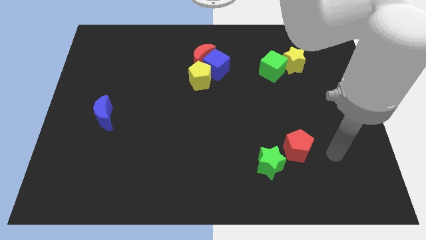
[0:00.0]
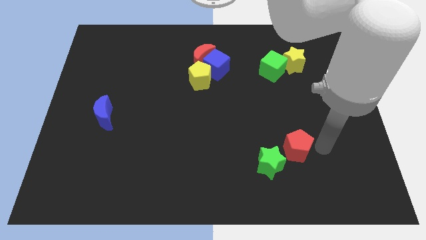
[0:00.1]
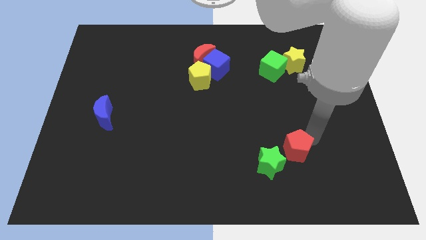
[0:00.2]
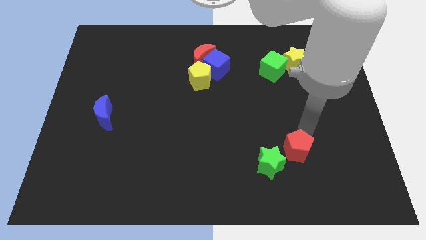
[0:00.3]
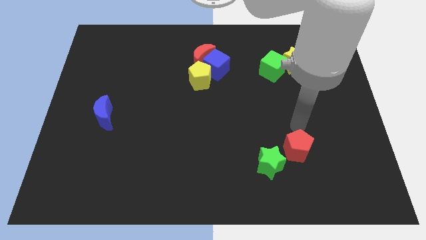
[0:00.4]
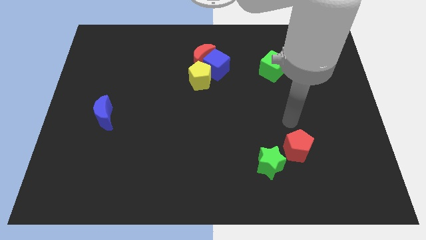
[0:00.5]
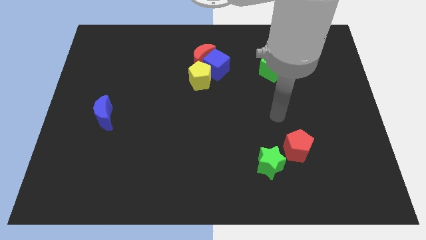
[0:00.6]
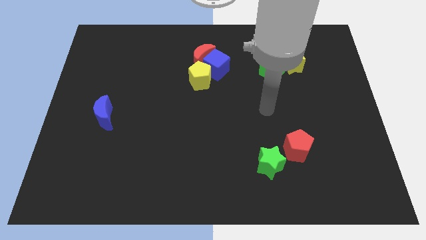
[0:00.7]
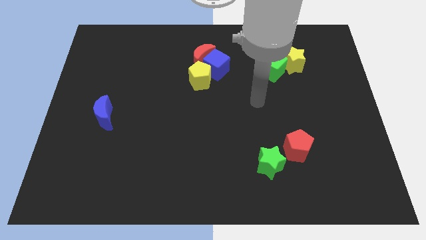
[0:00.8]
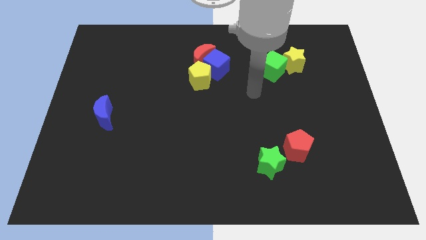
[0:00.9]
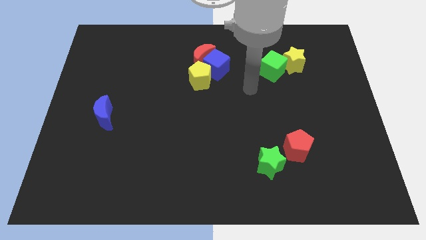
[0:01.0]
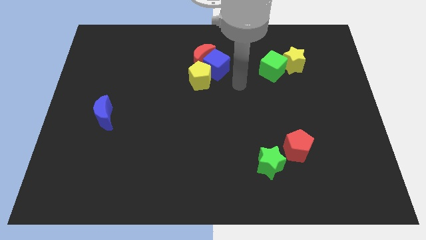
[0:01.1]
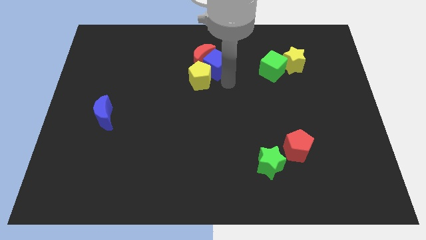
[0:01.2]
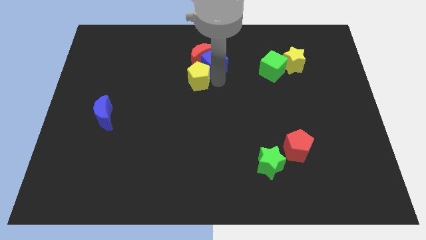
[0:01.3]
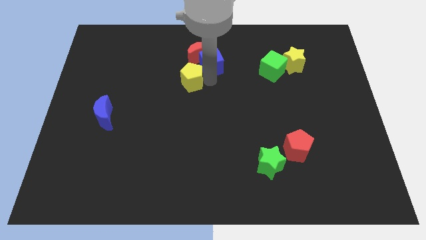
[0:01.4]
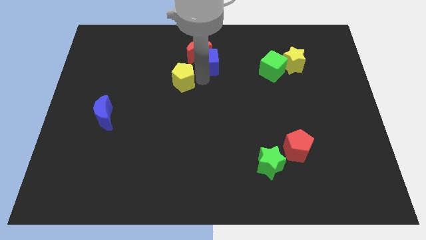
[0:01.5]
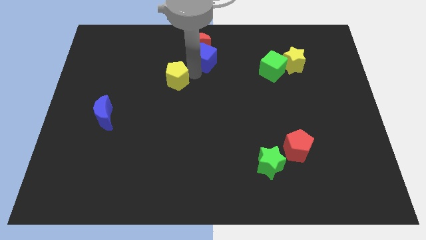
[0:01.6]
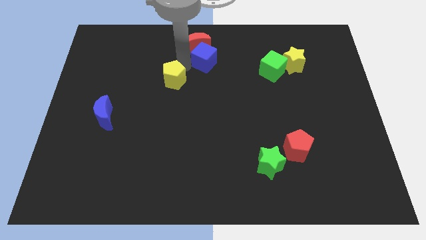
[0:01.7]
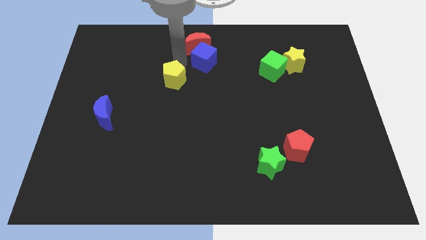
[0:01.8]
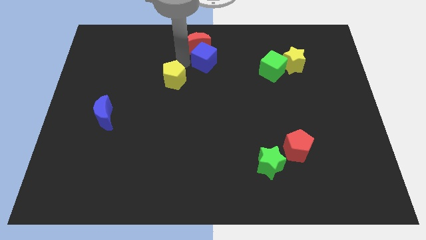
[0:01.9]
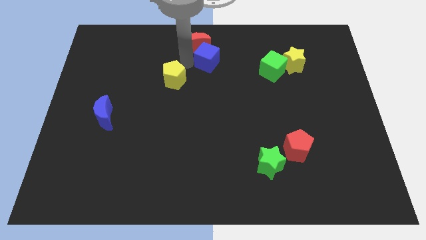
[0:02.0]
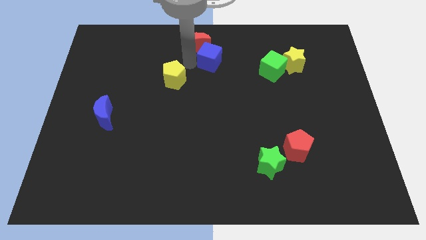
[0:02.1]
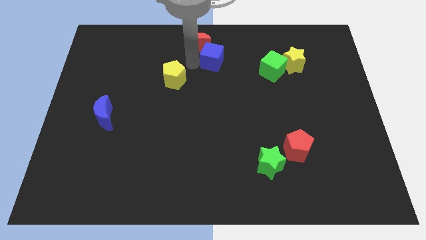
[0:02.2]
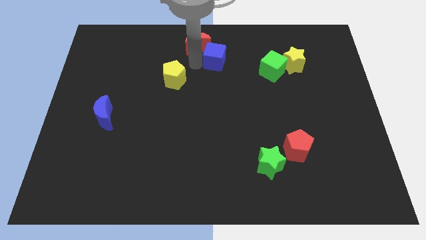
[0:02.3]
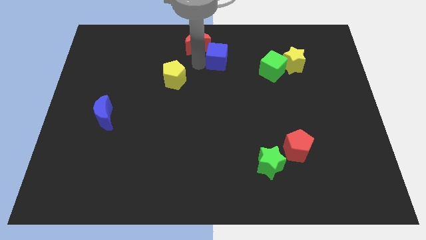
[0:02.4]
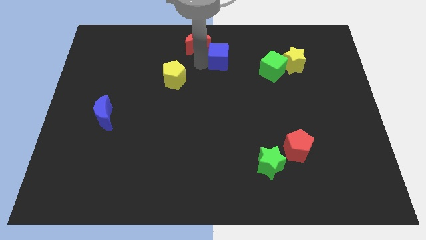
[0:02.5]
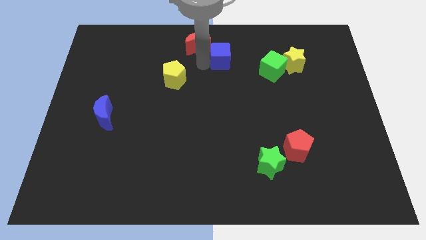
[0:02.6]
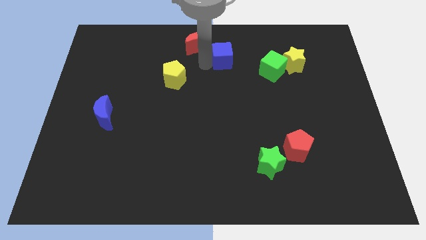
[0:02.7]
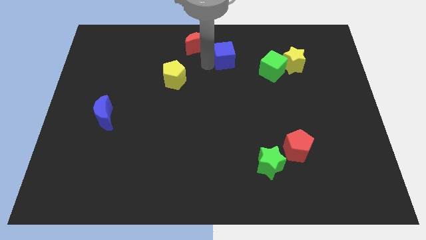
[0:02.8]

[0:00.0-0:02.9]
separate the blue cube from the red moon and yellow pentagon

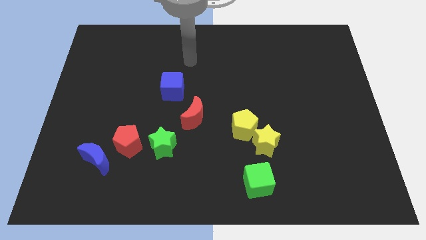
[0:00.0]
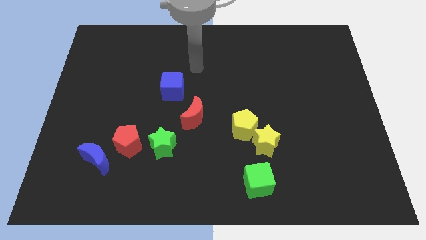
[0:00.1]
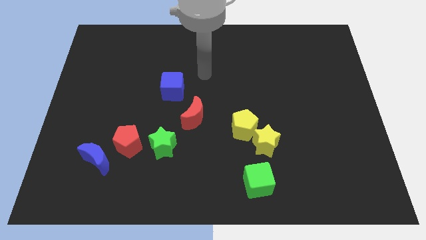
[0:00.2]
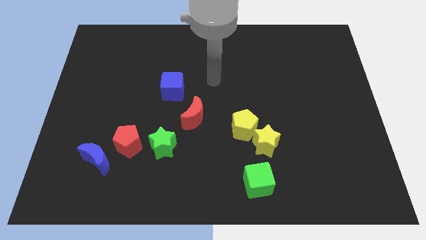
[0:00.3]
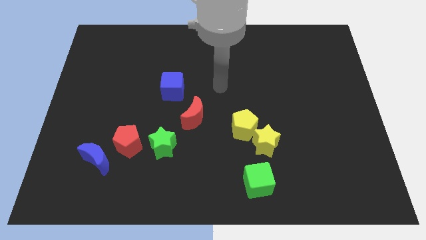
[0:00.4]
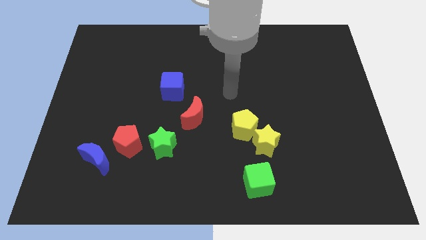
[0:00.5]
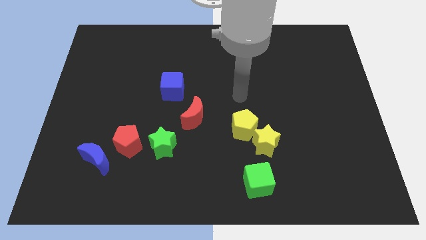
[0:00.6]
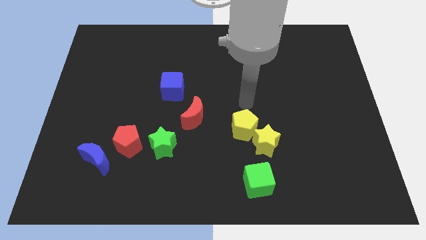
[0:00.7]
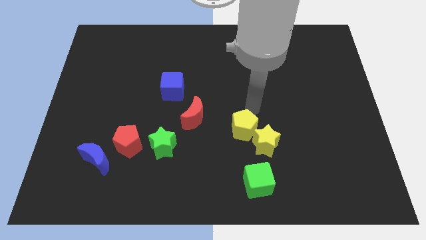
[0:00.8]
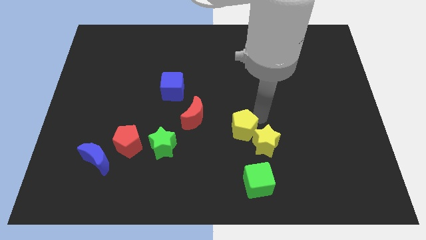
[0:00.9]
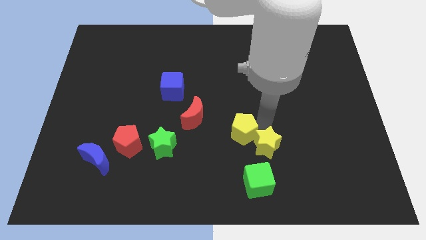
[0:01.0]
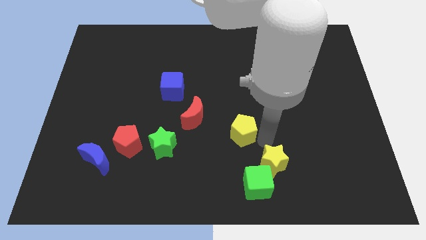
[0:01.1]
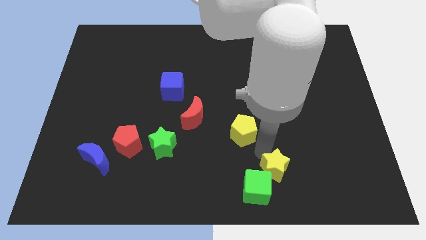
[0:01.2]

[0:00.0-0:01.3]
separate the yellow pentagon from the yellow star

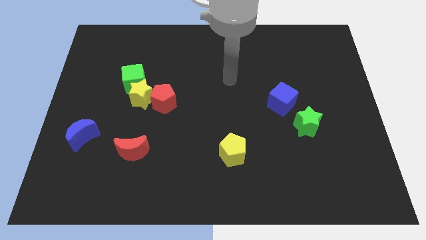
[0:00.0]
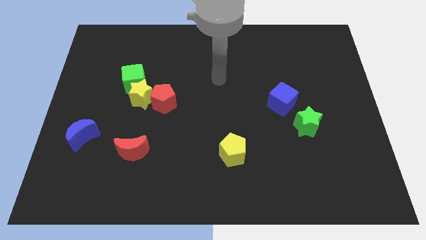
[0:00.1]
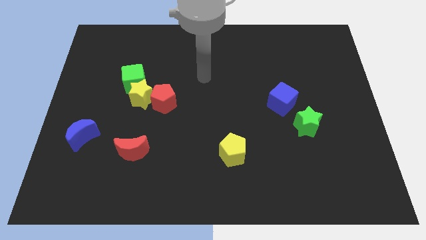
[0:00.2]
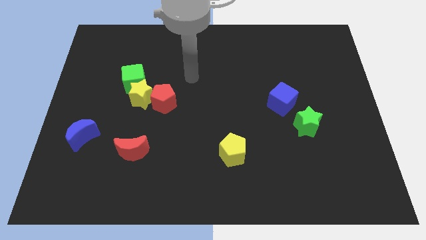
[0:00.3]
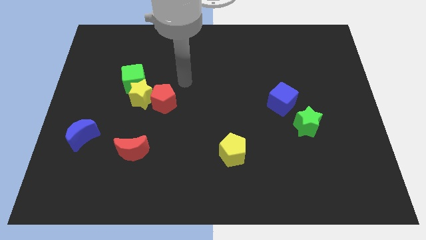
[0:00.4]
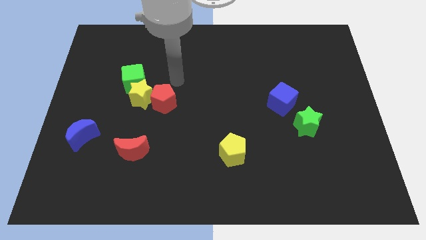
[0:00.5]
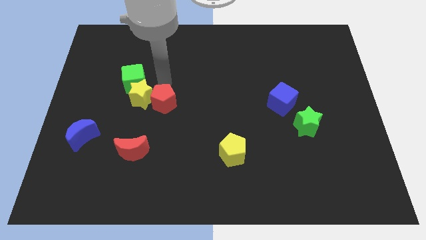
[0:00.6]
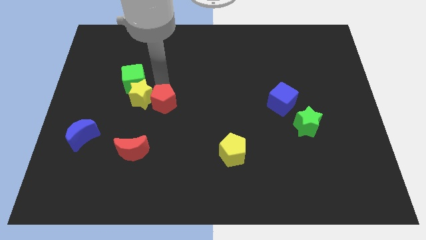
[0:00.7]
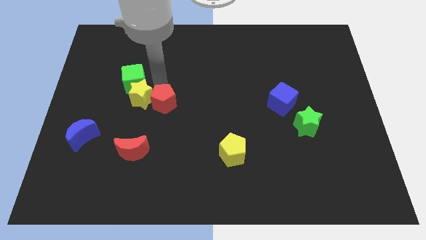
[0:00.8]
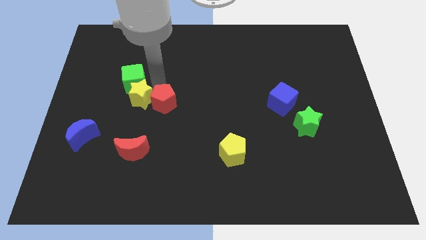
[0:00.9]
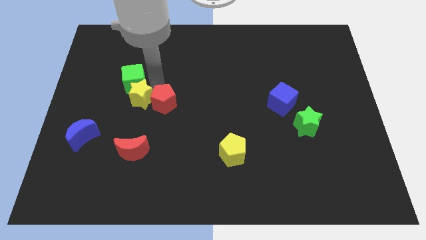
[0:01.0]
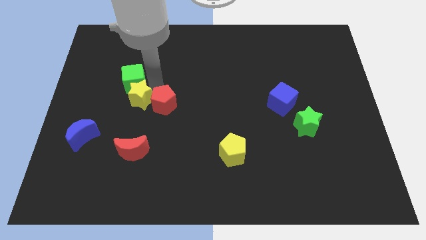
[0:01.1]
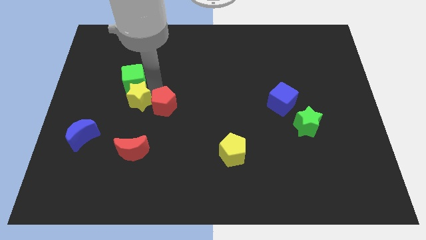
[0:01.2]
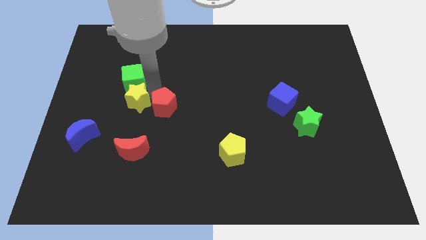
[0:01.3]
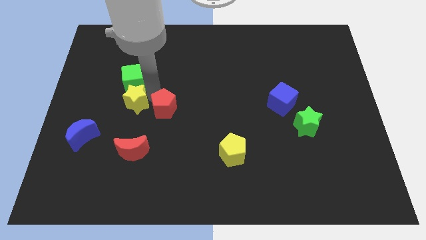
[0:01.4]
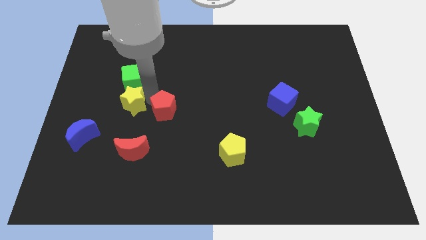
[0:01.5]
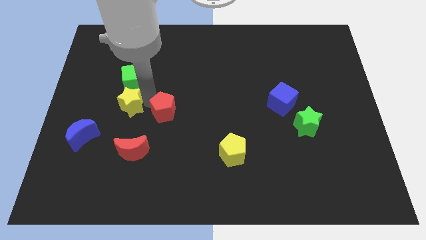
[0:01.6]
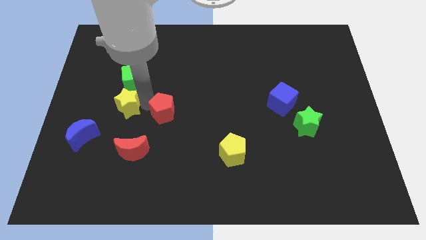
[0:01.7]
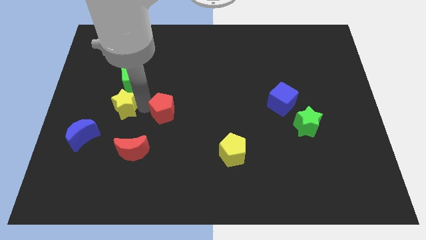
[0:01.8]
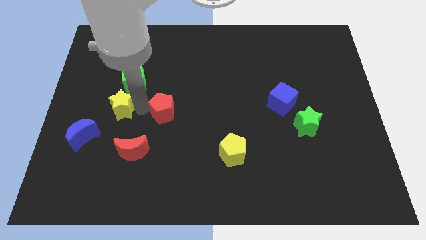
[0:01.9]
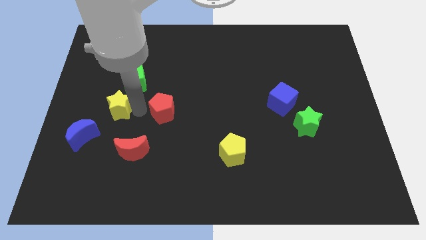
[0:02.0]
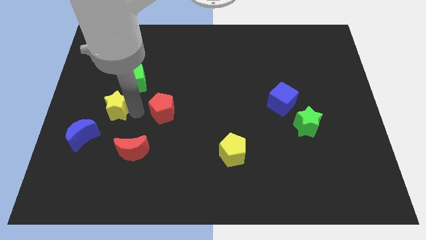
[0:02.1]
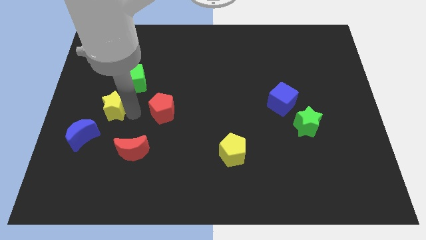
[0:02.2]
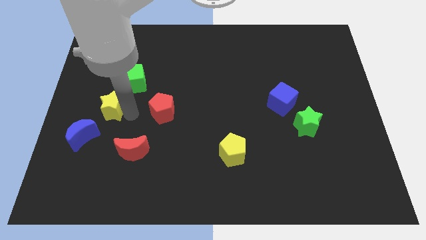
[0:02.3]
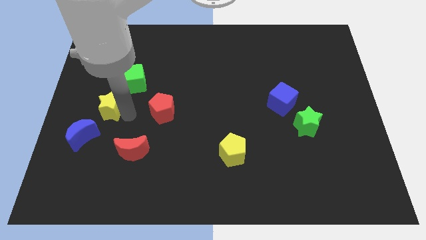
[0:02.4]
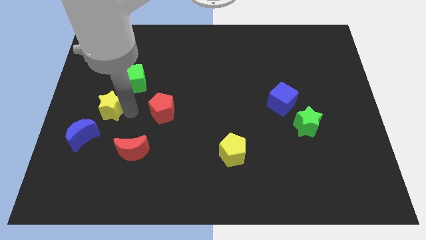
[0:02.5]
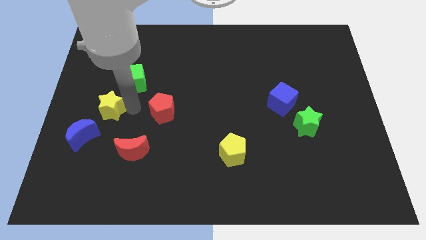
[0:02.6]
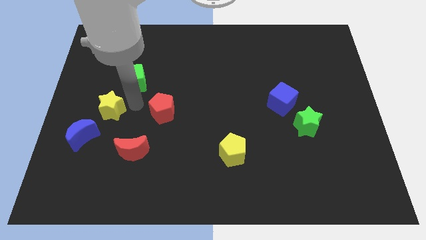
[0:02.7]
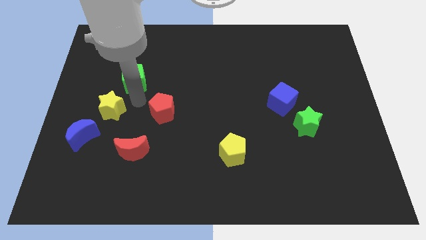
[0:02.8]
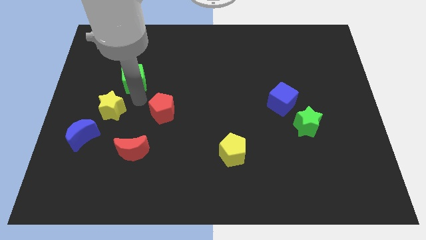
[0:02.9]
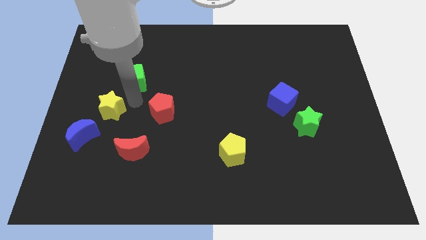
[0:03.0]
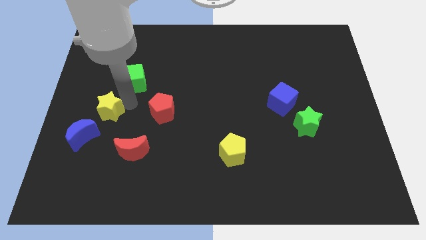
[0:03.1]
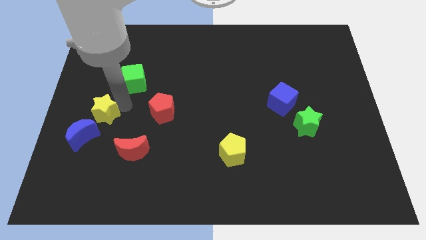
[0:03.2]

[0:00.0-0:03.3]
move the yellow star away from the red pentagon and green cube

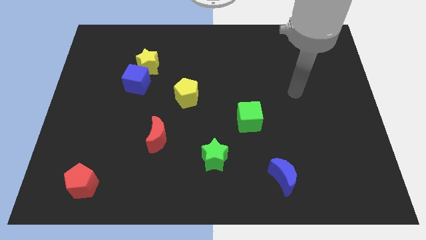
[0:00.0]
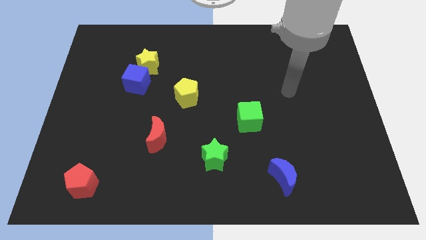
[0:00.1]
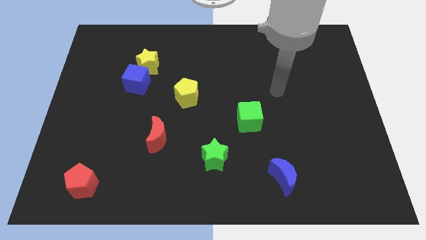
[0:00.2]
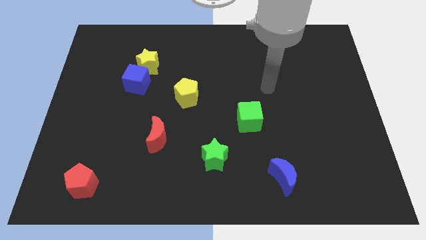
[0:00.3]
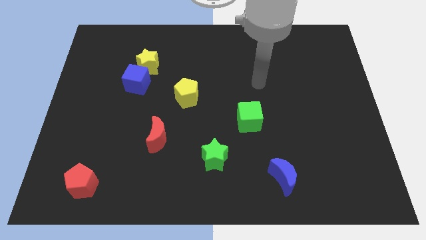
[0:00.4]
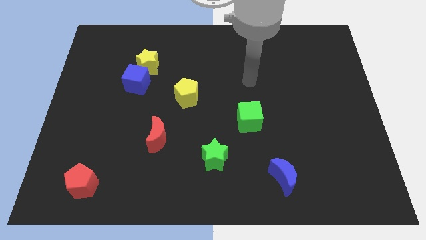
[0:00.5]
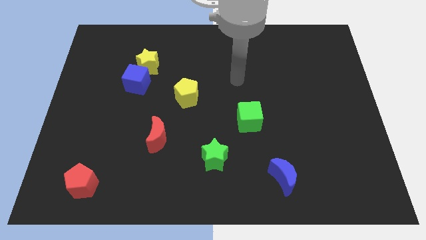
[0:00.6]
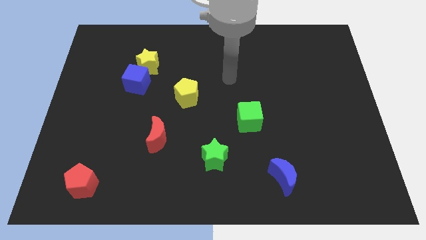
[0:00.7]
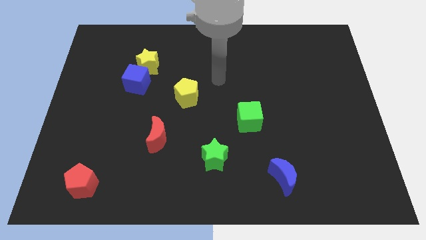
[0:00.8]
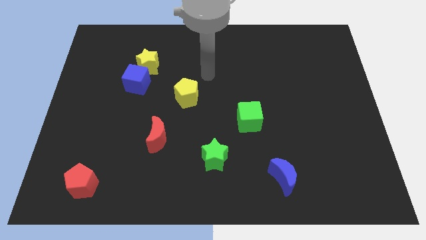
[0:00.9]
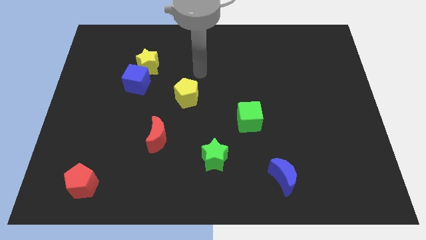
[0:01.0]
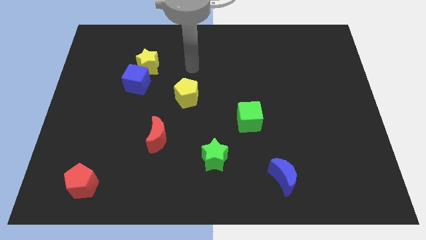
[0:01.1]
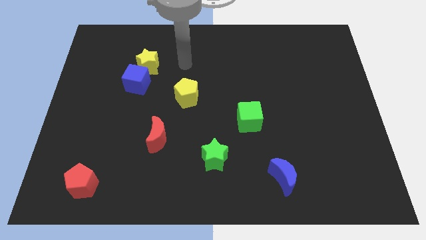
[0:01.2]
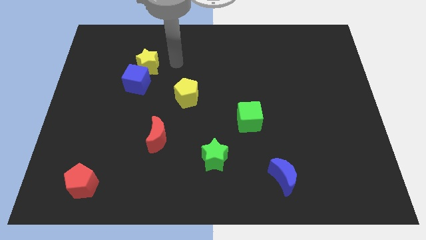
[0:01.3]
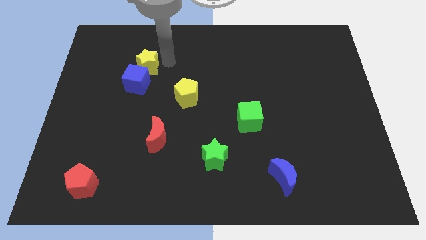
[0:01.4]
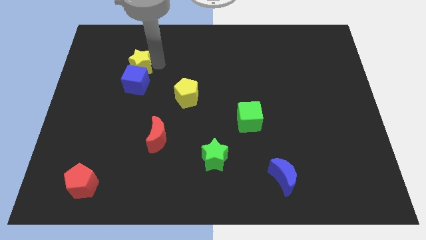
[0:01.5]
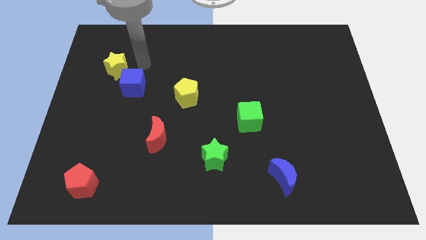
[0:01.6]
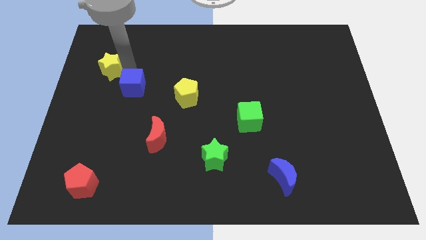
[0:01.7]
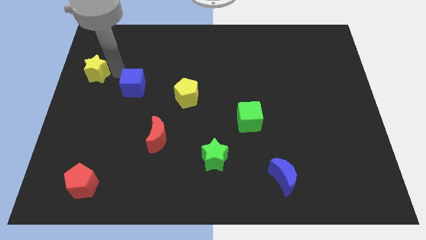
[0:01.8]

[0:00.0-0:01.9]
separate the blue cube from the yellow star
